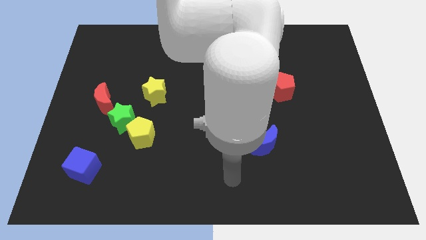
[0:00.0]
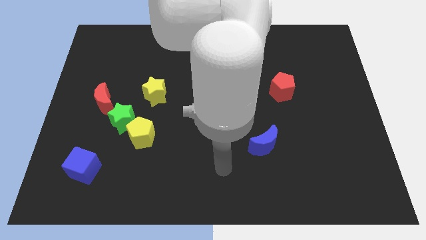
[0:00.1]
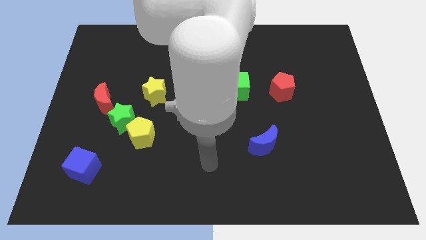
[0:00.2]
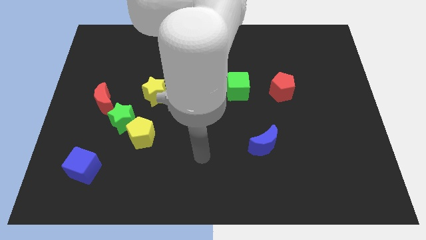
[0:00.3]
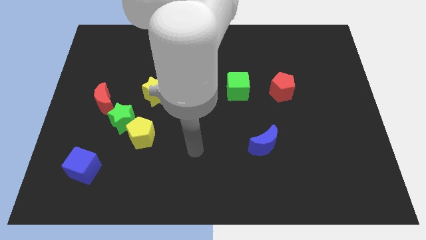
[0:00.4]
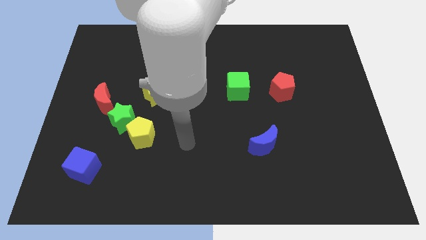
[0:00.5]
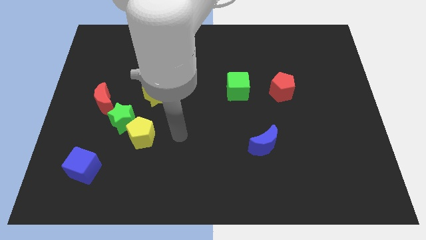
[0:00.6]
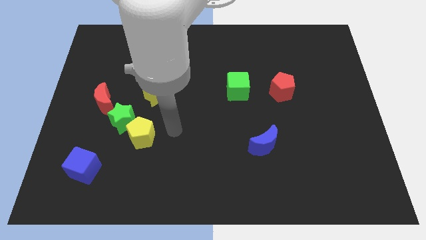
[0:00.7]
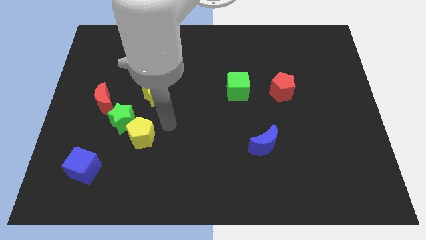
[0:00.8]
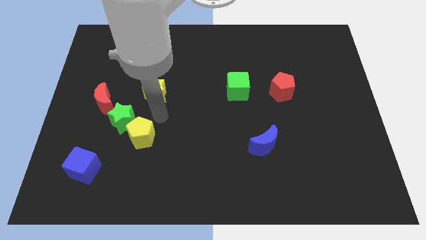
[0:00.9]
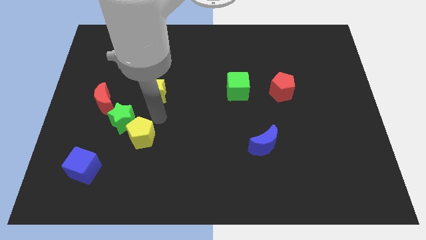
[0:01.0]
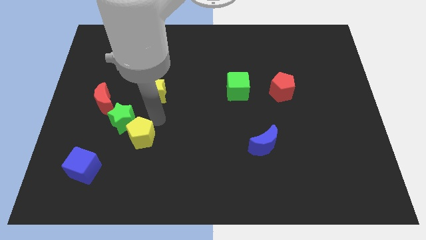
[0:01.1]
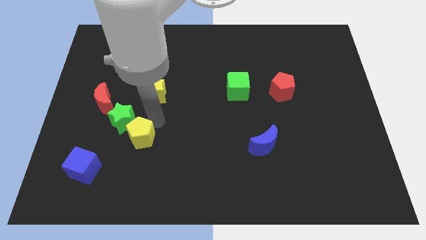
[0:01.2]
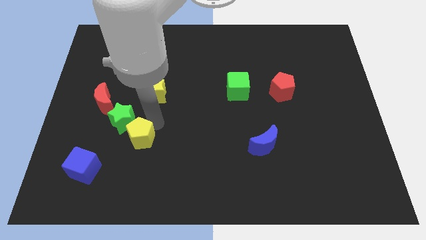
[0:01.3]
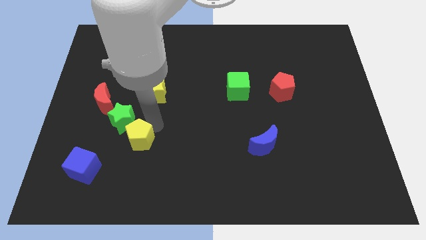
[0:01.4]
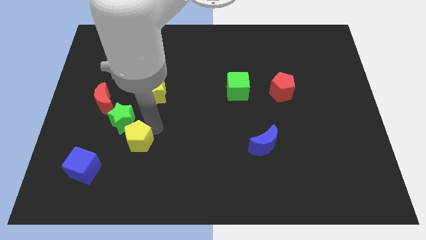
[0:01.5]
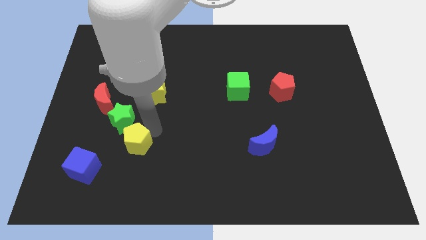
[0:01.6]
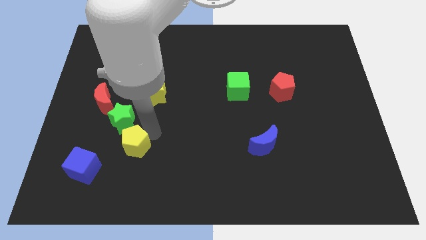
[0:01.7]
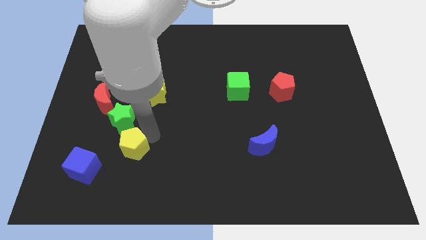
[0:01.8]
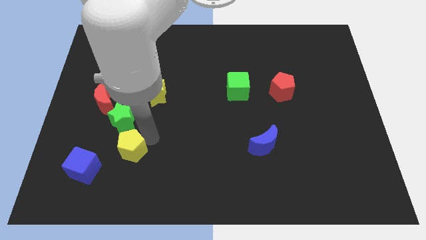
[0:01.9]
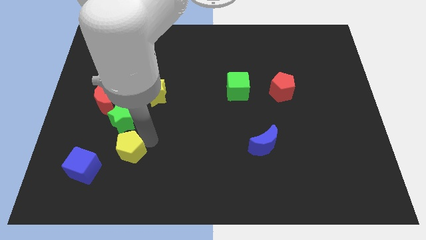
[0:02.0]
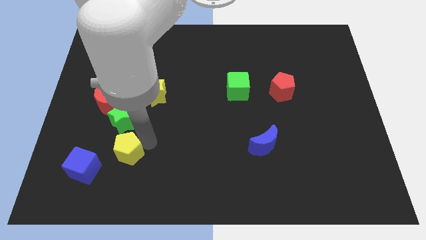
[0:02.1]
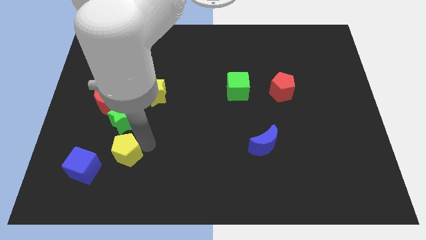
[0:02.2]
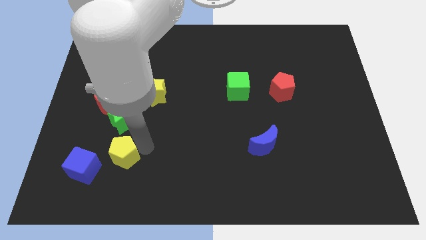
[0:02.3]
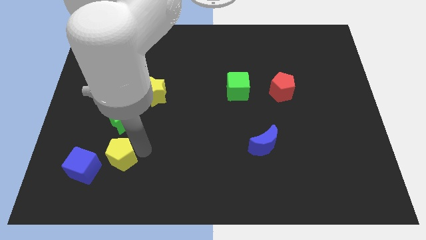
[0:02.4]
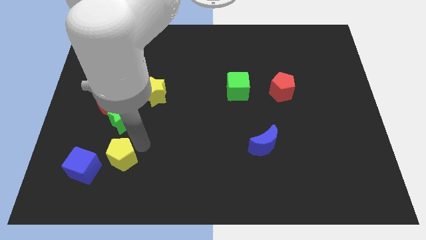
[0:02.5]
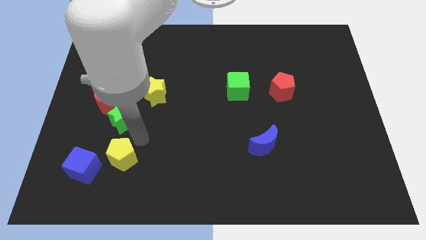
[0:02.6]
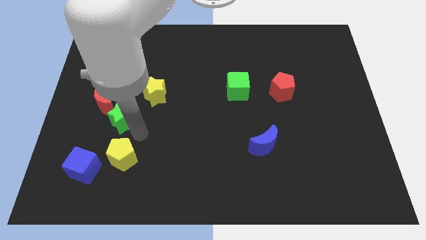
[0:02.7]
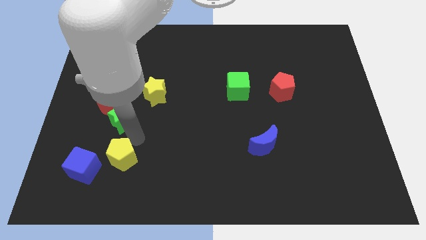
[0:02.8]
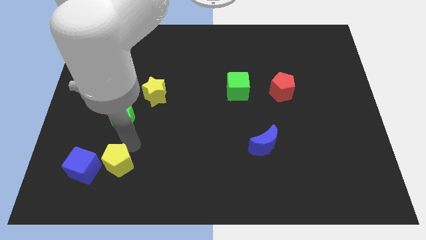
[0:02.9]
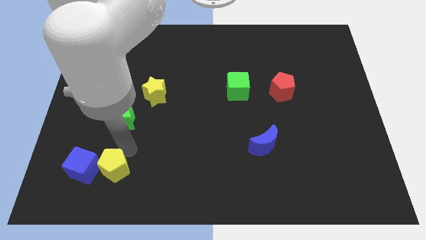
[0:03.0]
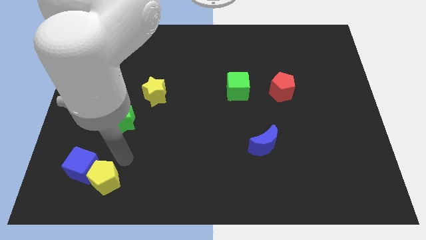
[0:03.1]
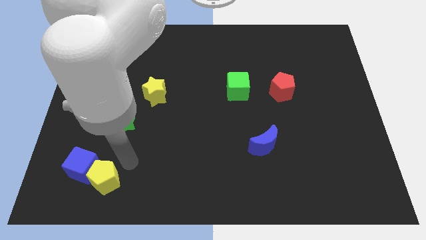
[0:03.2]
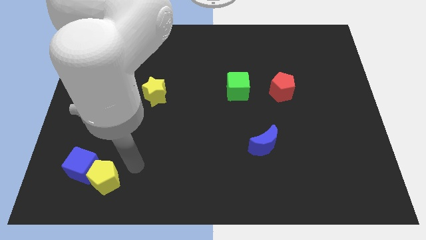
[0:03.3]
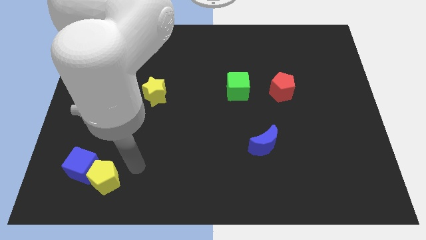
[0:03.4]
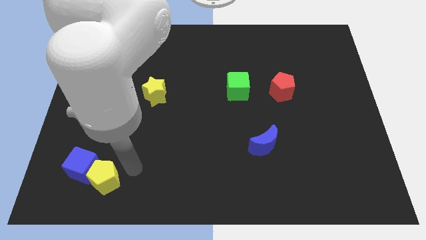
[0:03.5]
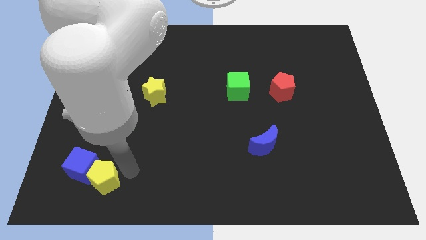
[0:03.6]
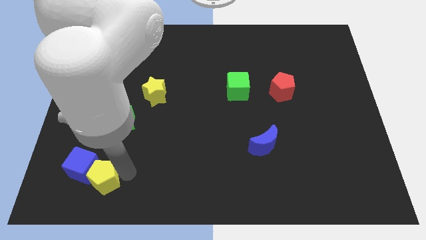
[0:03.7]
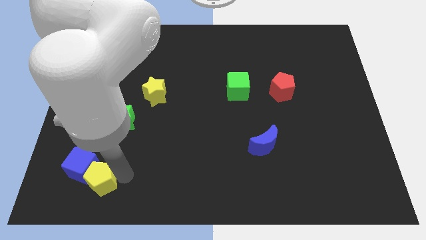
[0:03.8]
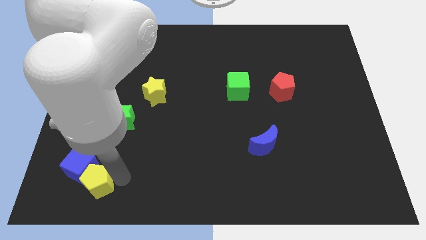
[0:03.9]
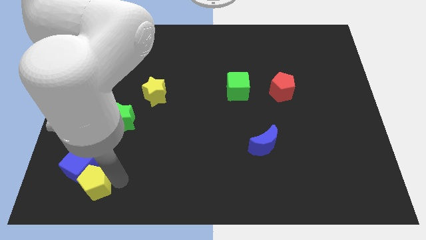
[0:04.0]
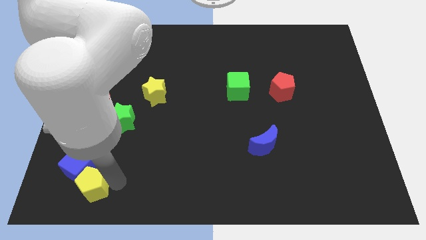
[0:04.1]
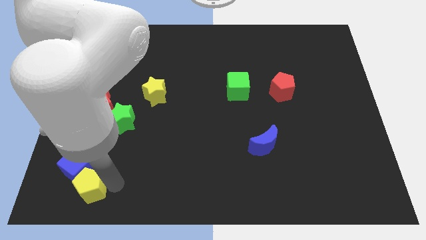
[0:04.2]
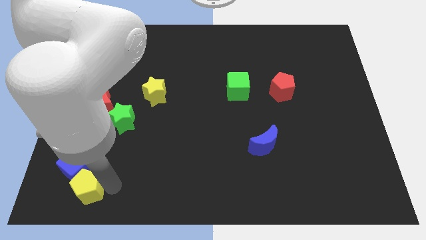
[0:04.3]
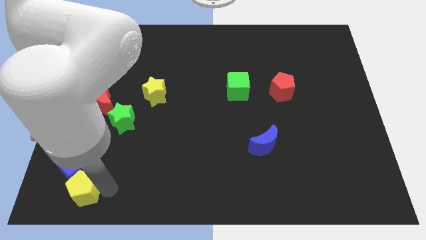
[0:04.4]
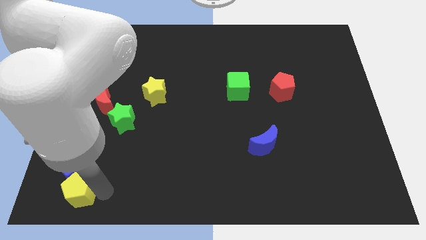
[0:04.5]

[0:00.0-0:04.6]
put the yellow pentagon to the lower left corner

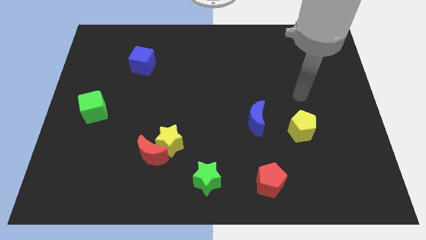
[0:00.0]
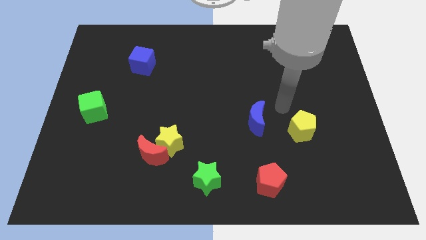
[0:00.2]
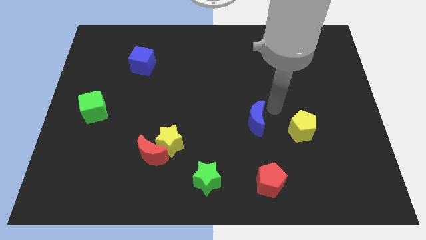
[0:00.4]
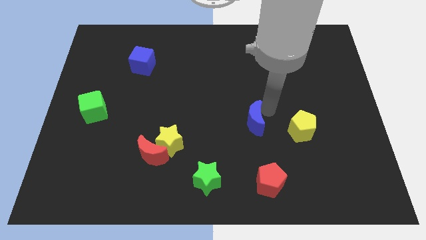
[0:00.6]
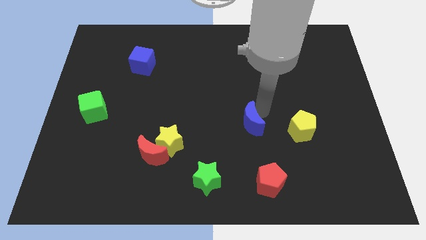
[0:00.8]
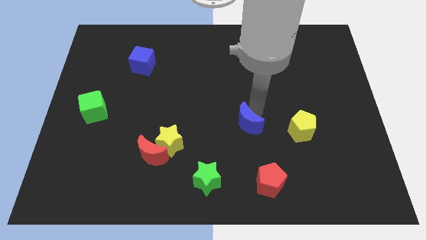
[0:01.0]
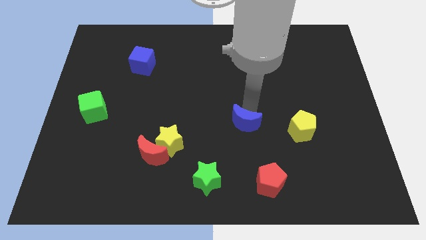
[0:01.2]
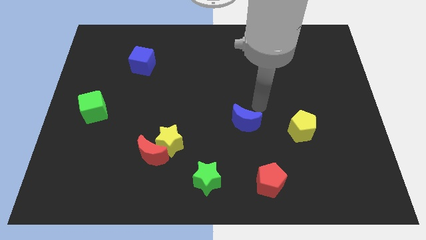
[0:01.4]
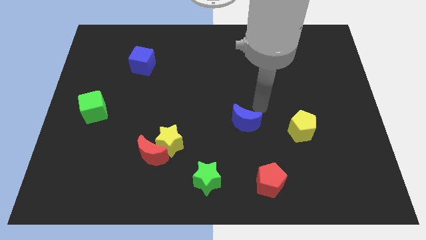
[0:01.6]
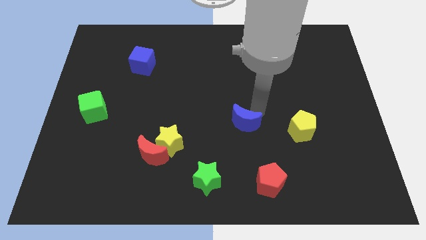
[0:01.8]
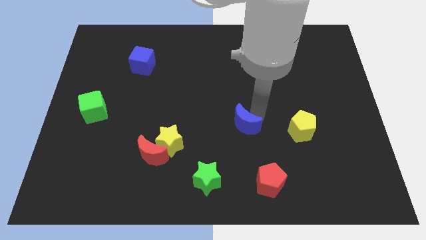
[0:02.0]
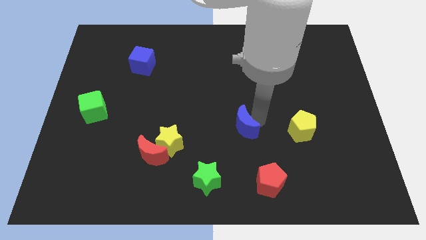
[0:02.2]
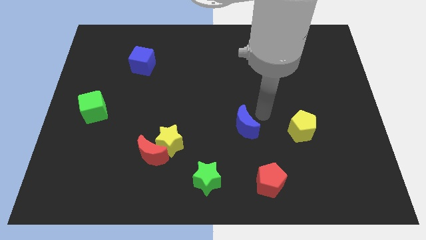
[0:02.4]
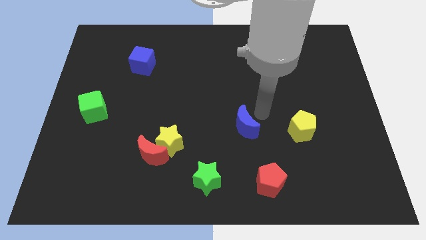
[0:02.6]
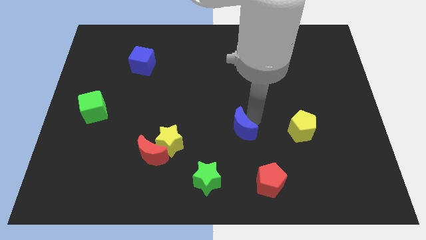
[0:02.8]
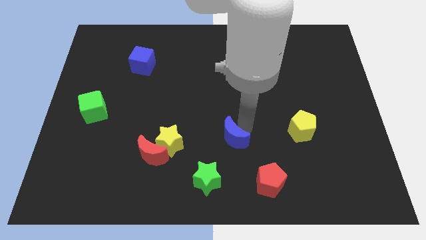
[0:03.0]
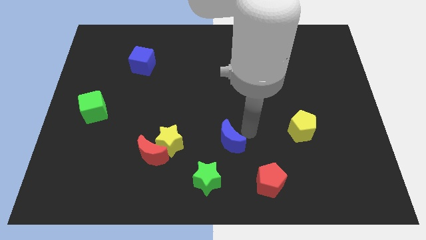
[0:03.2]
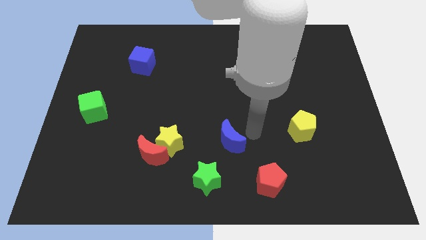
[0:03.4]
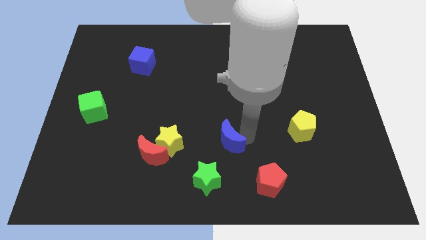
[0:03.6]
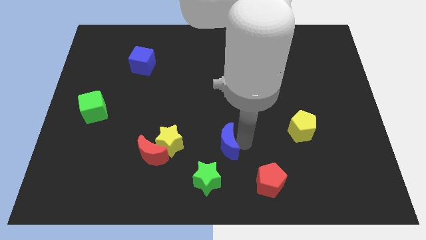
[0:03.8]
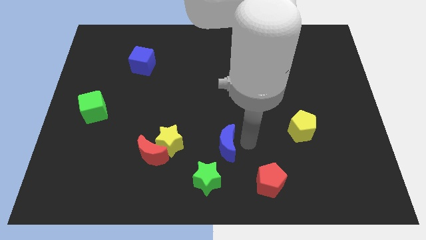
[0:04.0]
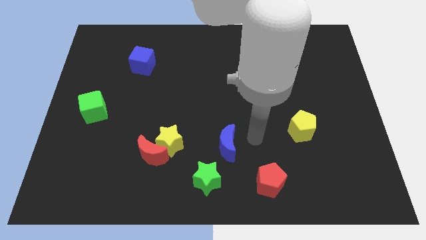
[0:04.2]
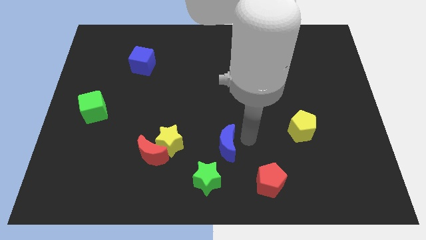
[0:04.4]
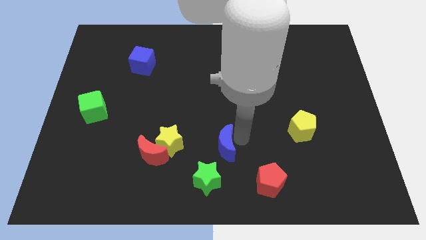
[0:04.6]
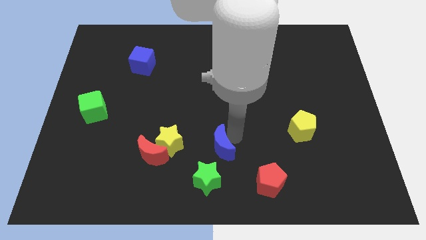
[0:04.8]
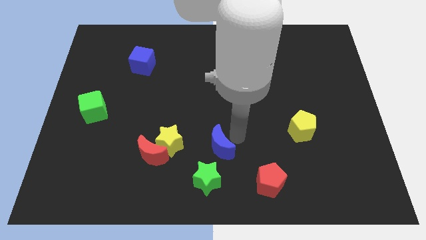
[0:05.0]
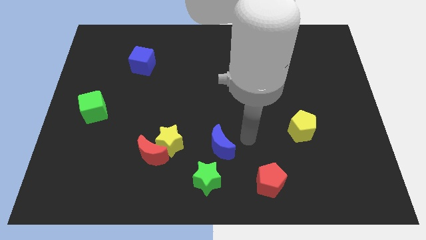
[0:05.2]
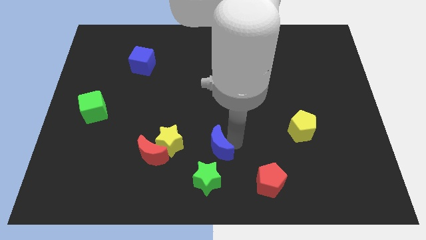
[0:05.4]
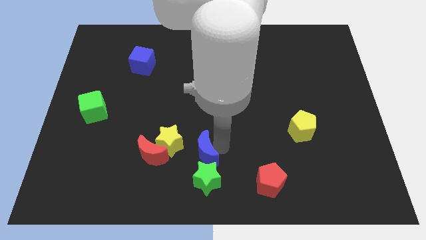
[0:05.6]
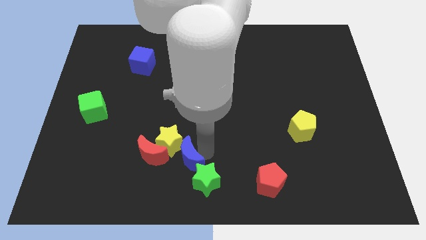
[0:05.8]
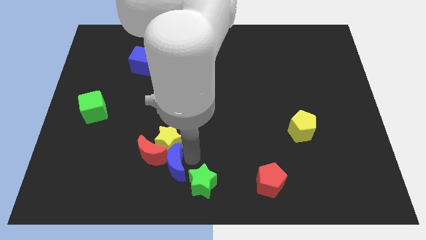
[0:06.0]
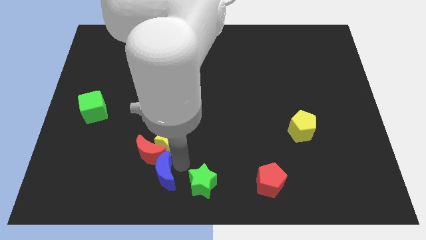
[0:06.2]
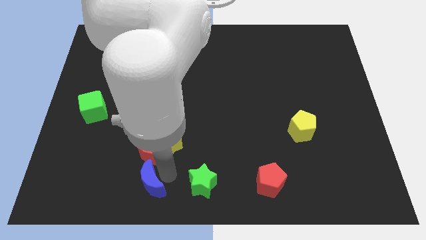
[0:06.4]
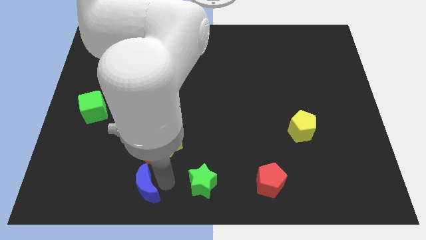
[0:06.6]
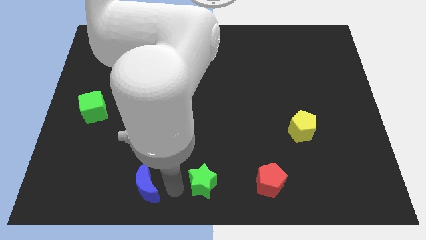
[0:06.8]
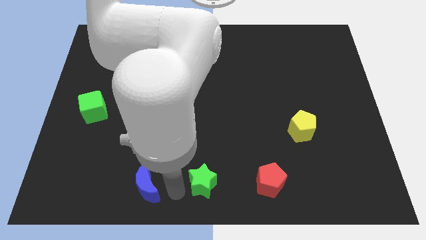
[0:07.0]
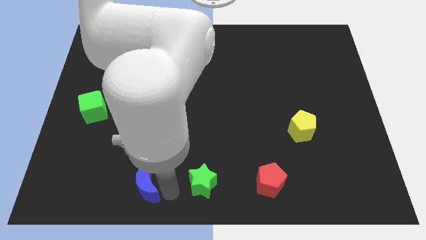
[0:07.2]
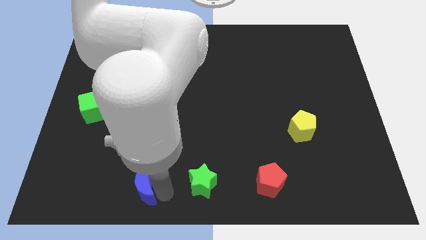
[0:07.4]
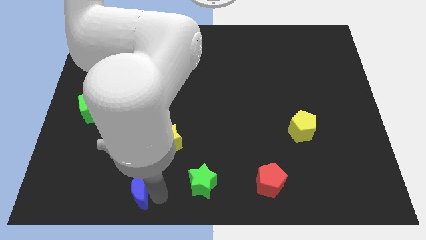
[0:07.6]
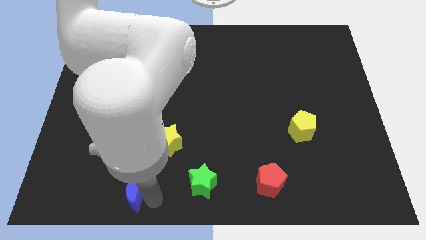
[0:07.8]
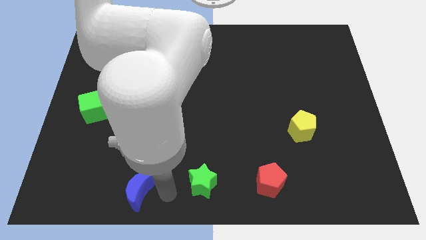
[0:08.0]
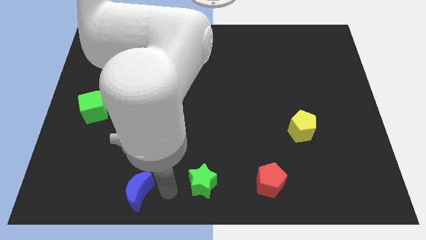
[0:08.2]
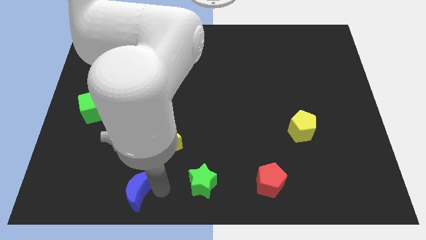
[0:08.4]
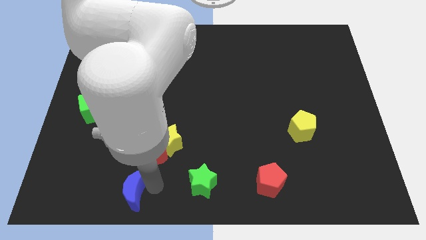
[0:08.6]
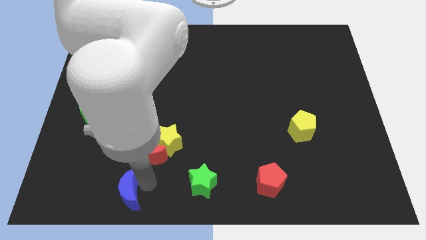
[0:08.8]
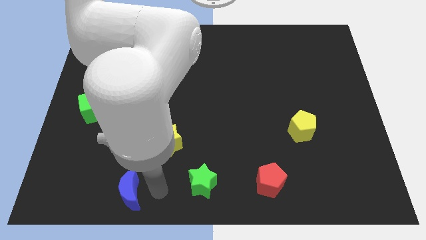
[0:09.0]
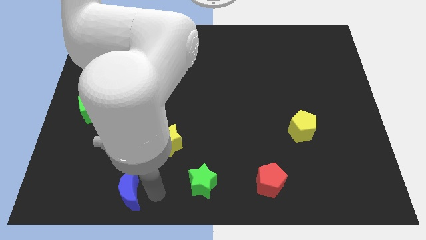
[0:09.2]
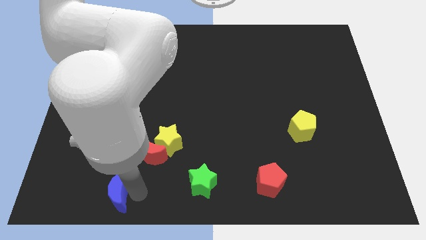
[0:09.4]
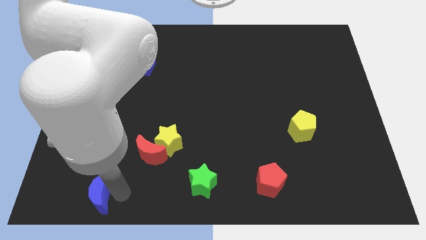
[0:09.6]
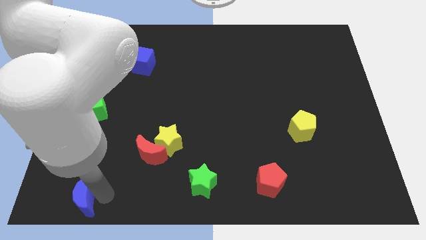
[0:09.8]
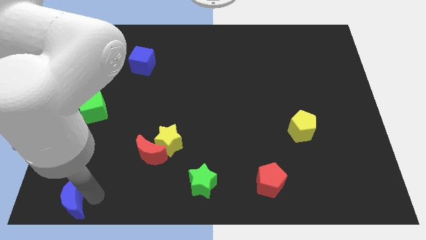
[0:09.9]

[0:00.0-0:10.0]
push the blue moon to the bottom left corner
